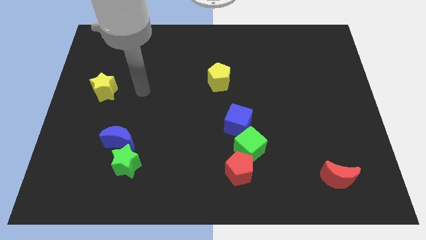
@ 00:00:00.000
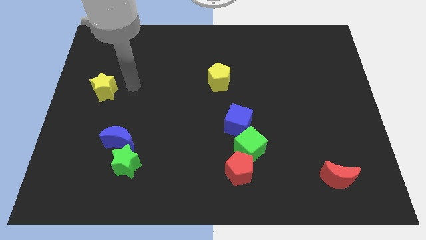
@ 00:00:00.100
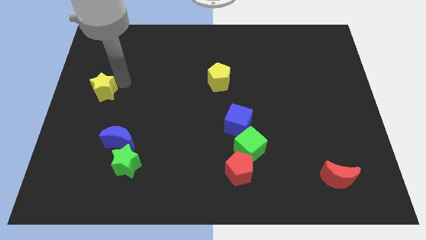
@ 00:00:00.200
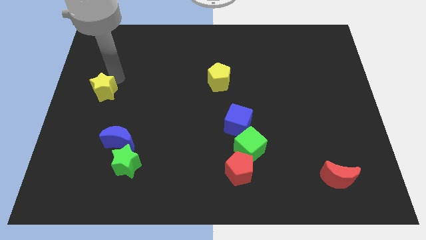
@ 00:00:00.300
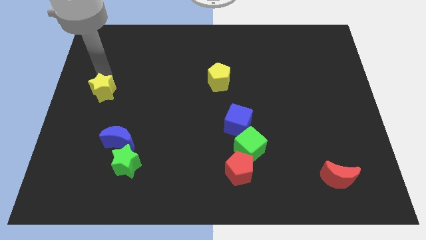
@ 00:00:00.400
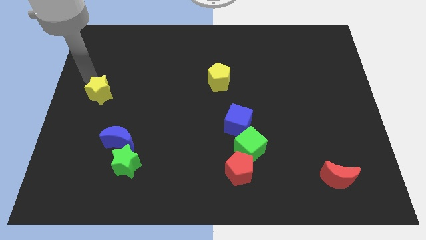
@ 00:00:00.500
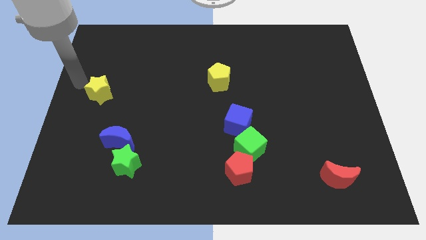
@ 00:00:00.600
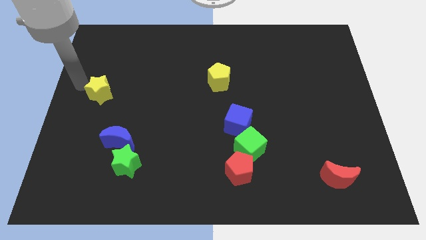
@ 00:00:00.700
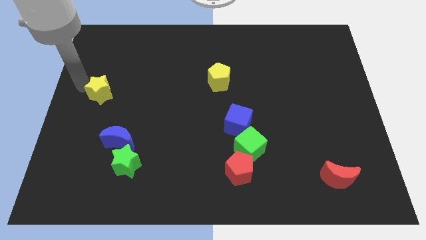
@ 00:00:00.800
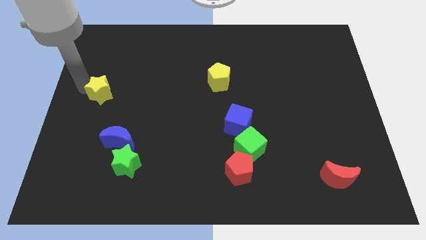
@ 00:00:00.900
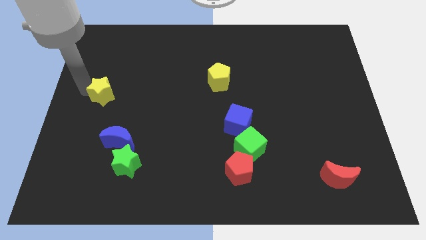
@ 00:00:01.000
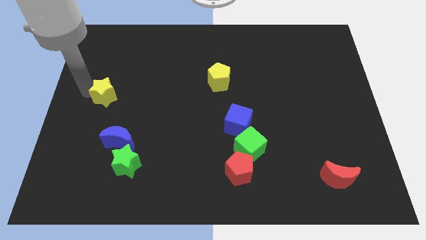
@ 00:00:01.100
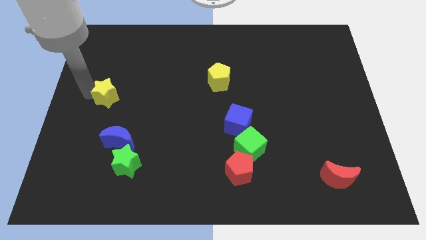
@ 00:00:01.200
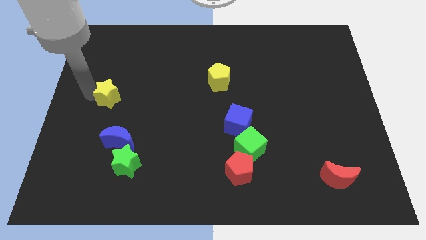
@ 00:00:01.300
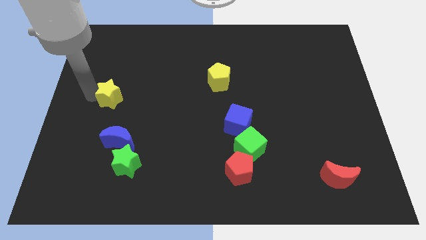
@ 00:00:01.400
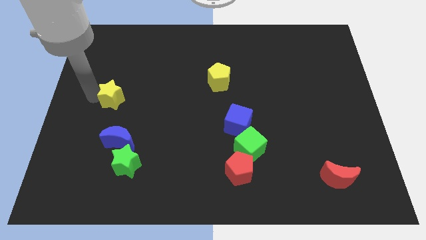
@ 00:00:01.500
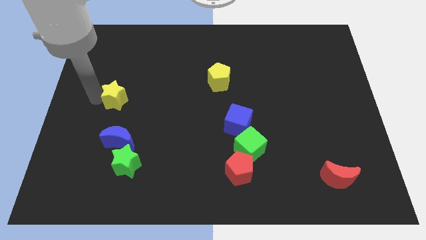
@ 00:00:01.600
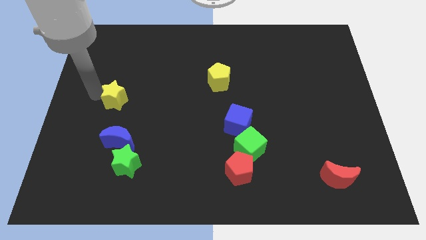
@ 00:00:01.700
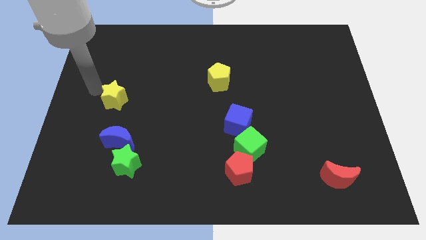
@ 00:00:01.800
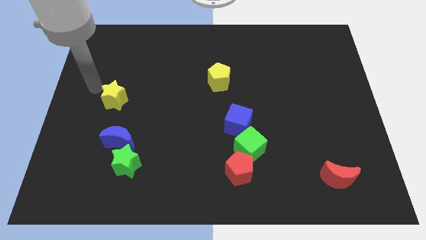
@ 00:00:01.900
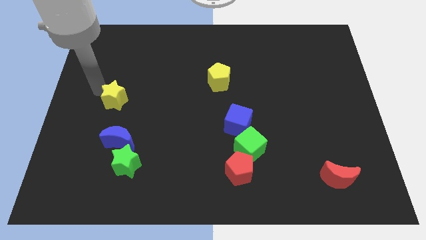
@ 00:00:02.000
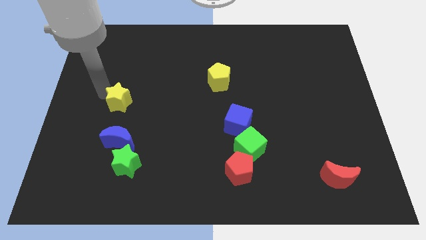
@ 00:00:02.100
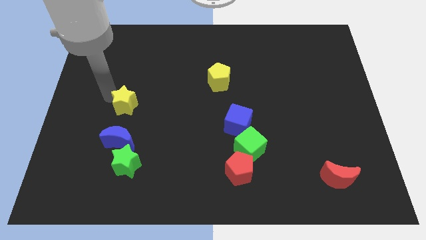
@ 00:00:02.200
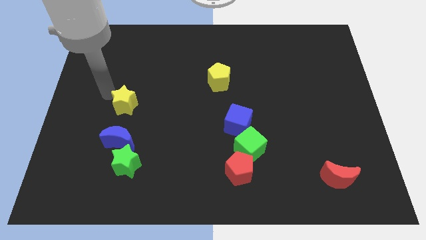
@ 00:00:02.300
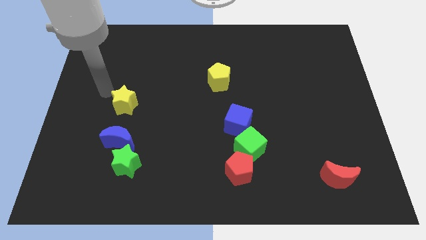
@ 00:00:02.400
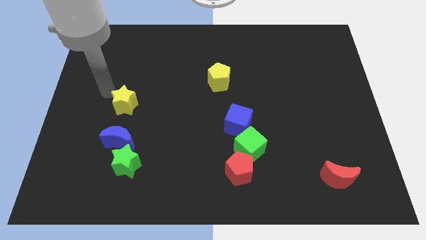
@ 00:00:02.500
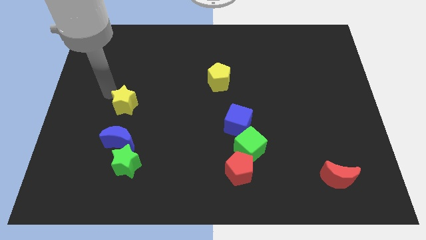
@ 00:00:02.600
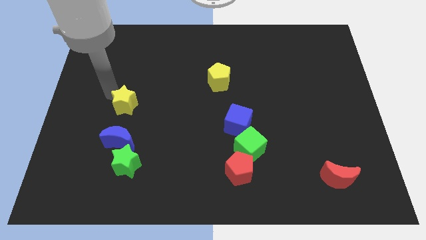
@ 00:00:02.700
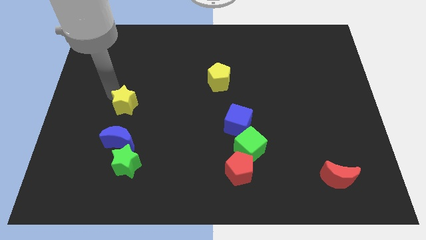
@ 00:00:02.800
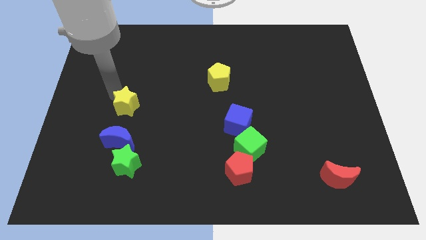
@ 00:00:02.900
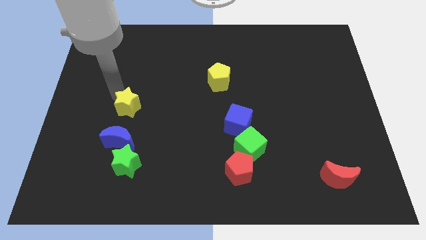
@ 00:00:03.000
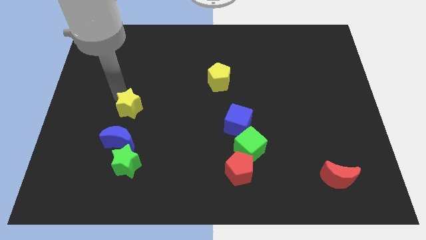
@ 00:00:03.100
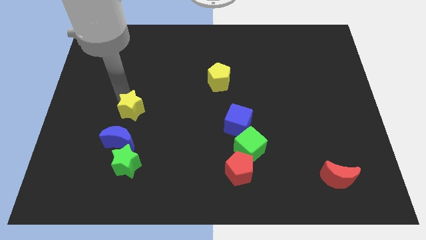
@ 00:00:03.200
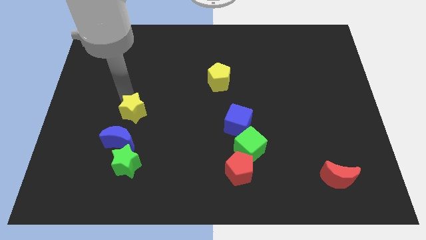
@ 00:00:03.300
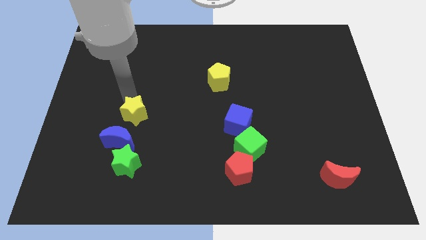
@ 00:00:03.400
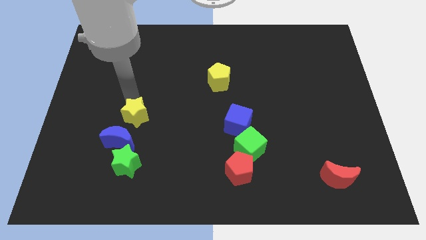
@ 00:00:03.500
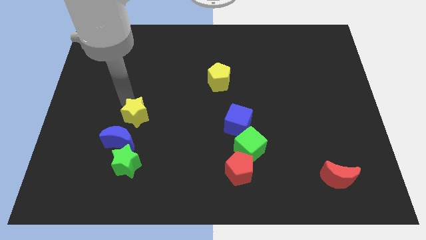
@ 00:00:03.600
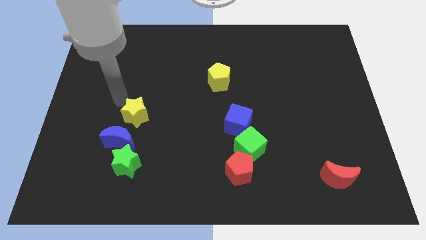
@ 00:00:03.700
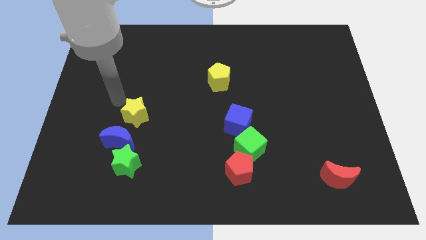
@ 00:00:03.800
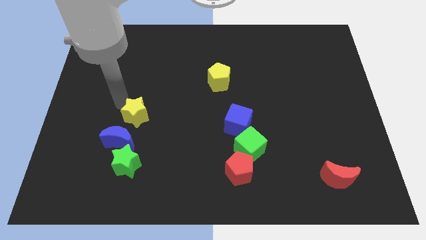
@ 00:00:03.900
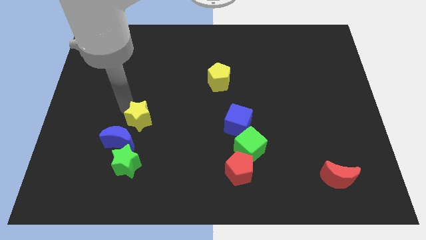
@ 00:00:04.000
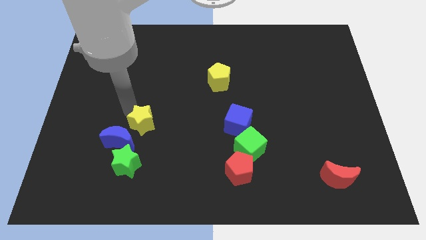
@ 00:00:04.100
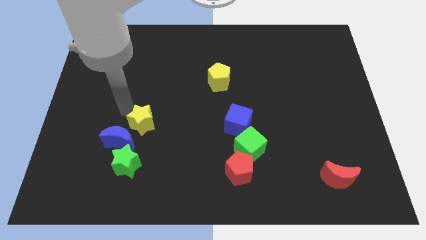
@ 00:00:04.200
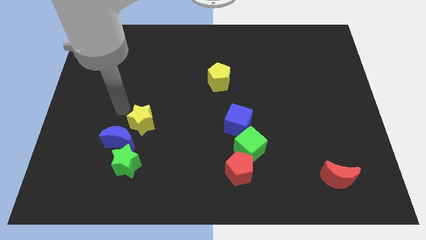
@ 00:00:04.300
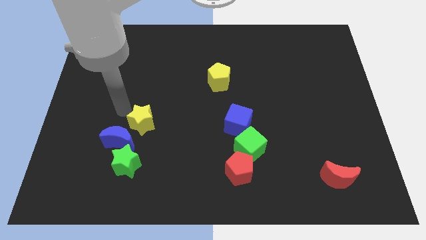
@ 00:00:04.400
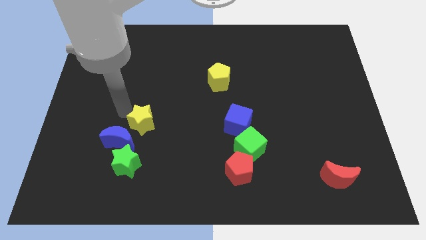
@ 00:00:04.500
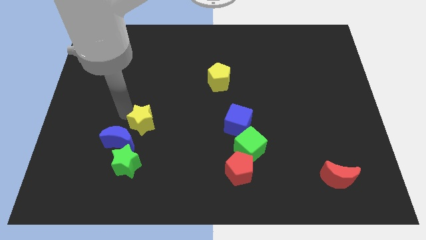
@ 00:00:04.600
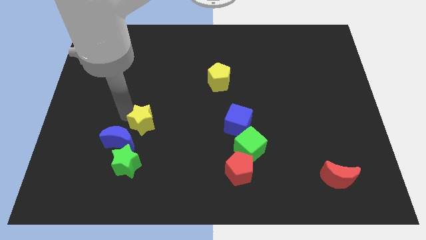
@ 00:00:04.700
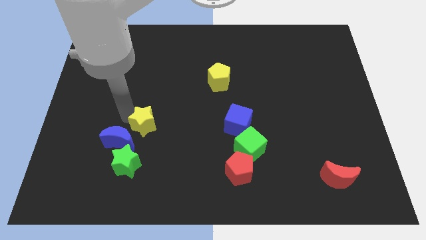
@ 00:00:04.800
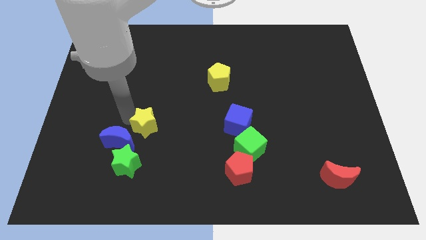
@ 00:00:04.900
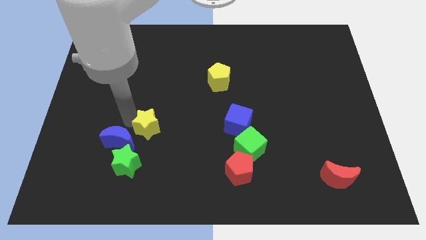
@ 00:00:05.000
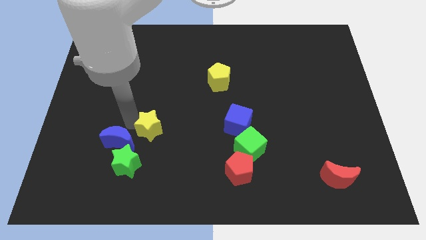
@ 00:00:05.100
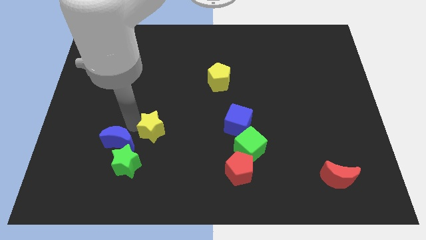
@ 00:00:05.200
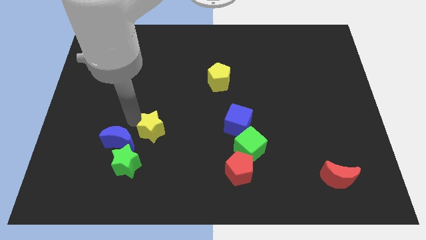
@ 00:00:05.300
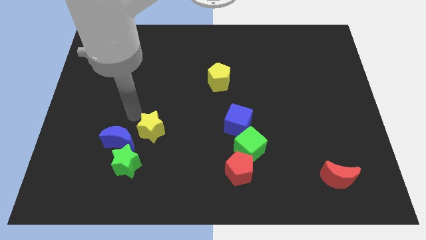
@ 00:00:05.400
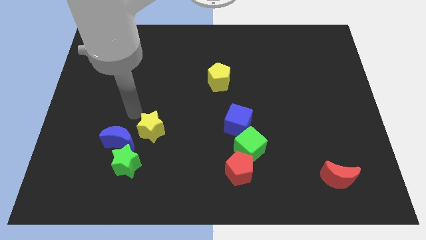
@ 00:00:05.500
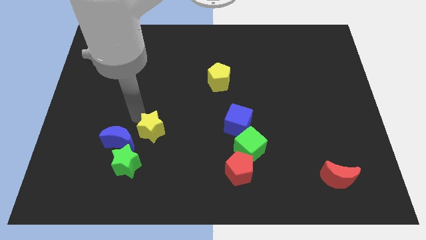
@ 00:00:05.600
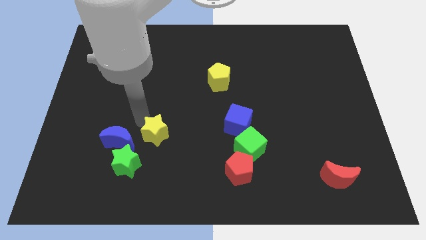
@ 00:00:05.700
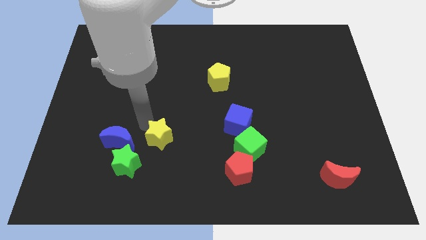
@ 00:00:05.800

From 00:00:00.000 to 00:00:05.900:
move the yellow star downwards and then to the right

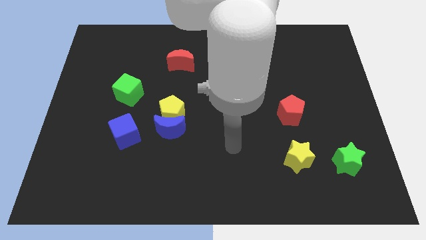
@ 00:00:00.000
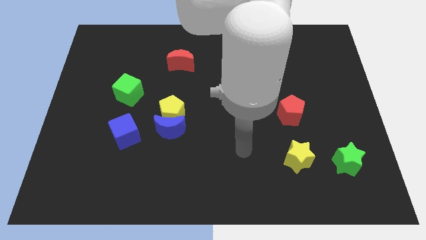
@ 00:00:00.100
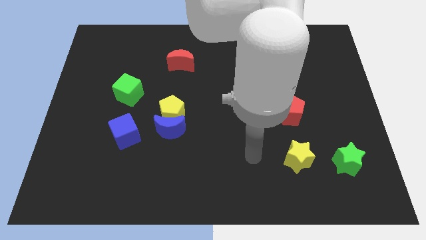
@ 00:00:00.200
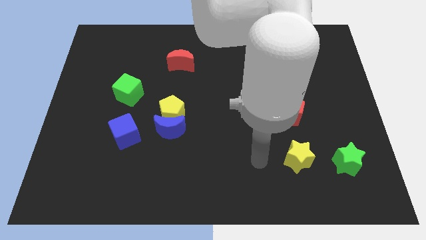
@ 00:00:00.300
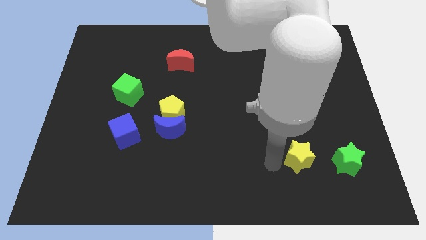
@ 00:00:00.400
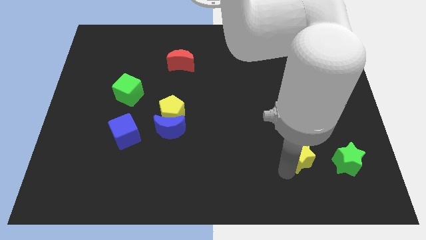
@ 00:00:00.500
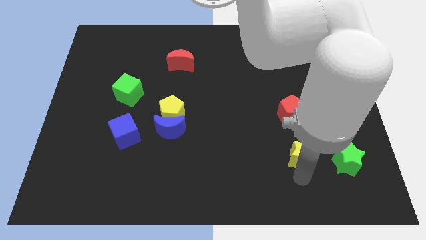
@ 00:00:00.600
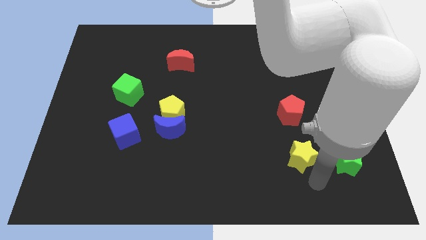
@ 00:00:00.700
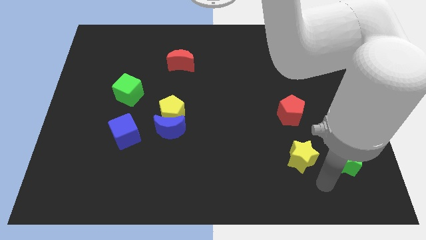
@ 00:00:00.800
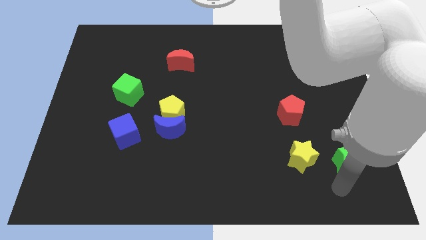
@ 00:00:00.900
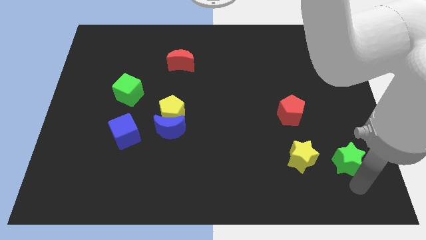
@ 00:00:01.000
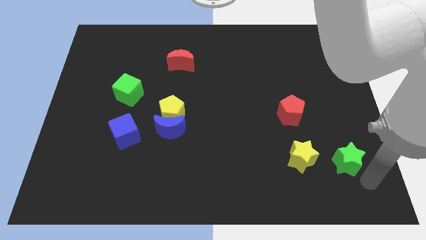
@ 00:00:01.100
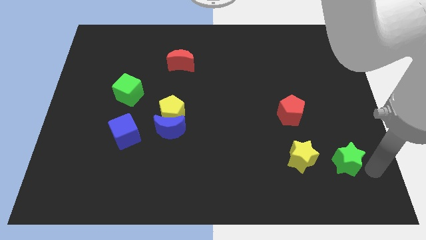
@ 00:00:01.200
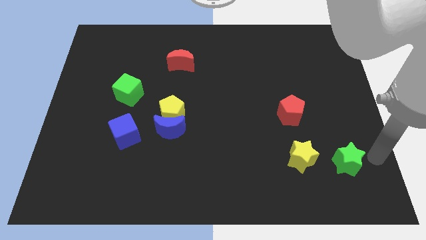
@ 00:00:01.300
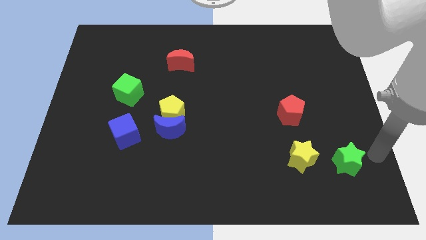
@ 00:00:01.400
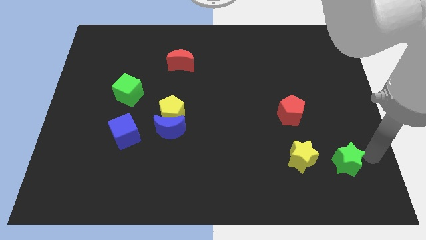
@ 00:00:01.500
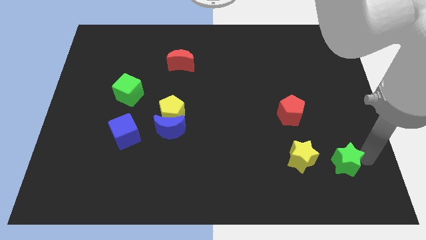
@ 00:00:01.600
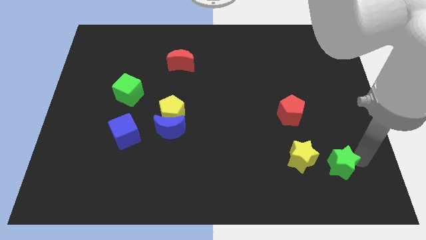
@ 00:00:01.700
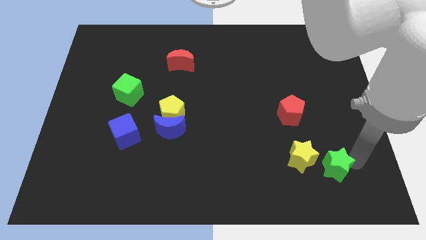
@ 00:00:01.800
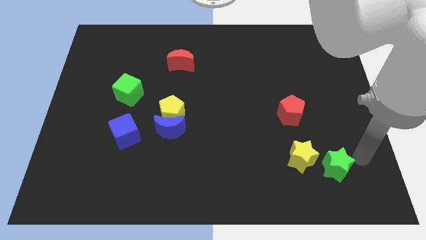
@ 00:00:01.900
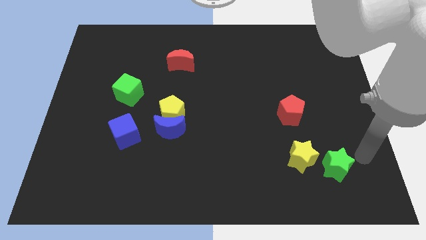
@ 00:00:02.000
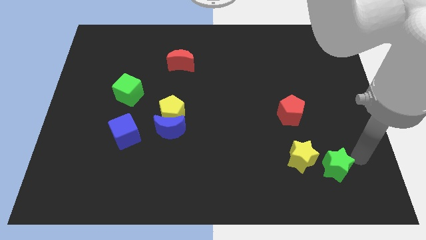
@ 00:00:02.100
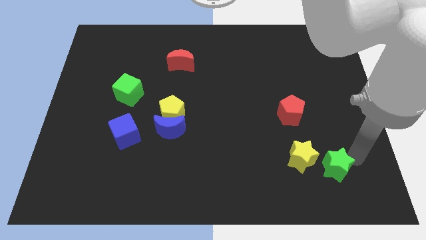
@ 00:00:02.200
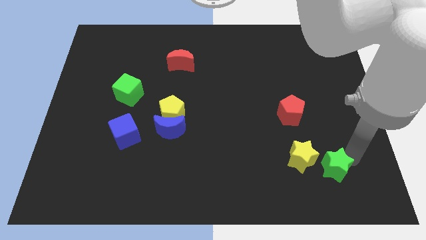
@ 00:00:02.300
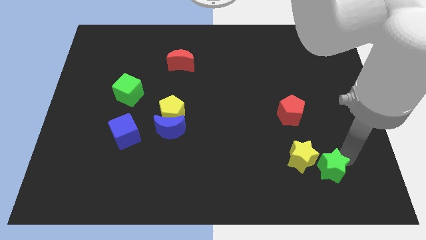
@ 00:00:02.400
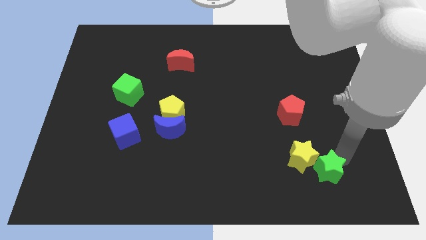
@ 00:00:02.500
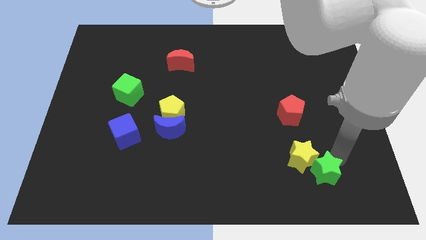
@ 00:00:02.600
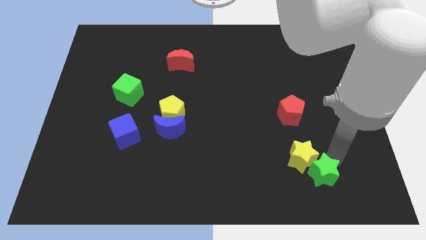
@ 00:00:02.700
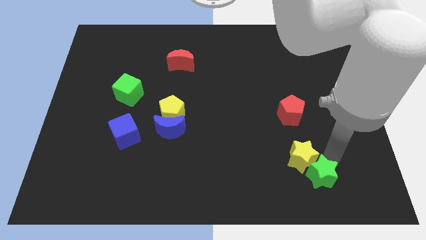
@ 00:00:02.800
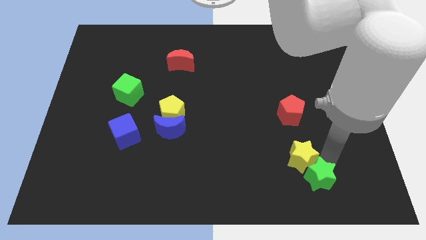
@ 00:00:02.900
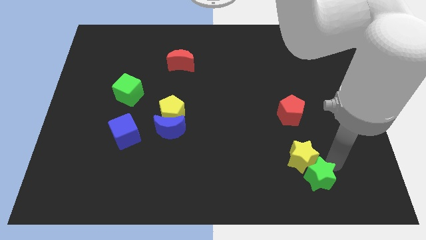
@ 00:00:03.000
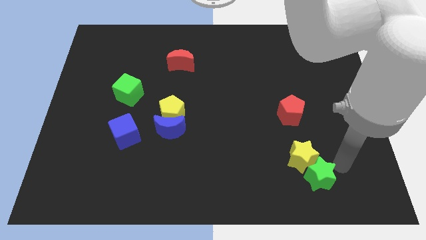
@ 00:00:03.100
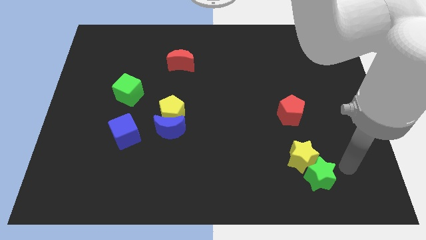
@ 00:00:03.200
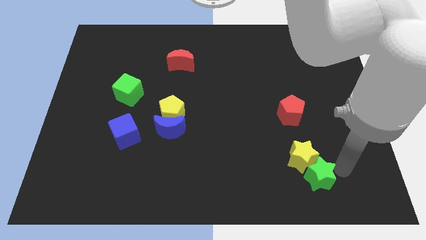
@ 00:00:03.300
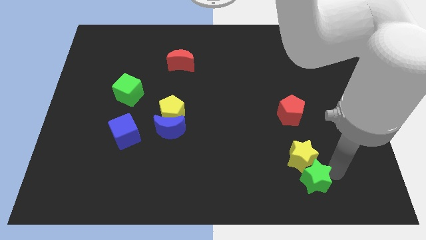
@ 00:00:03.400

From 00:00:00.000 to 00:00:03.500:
move the green star slightly to the left
